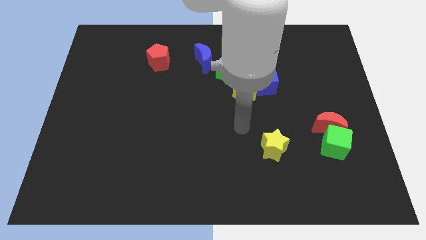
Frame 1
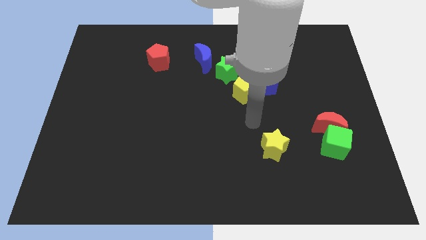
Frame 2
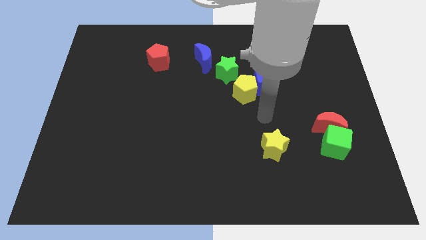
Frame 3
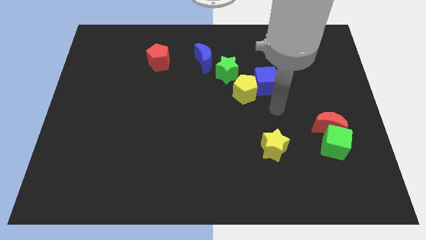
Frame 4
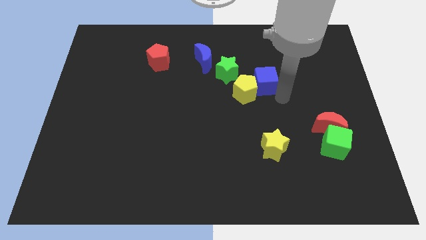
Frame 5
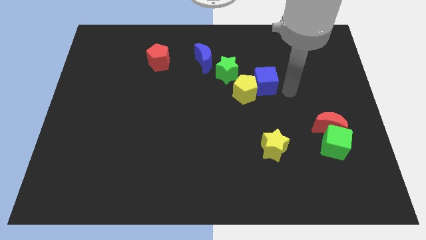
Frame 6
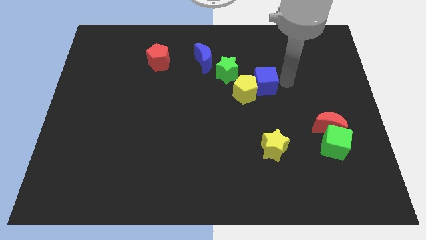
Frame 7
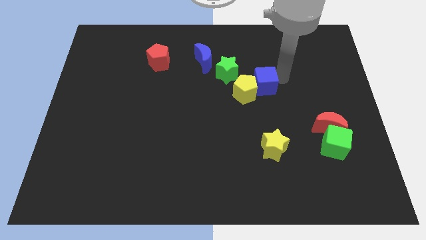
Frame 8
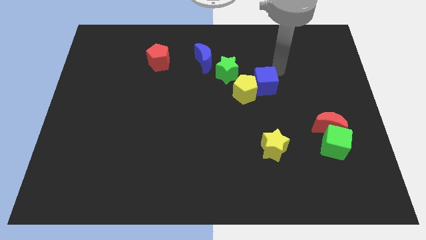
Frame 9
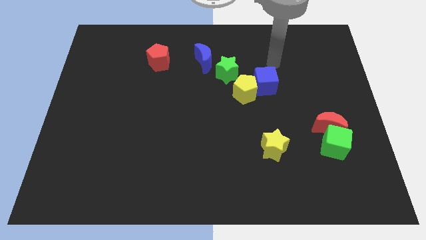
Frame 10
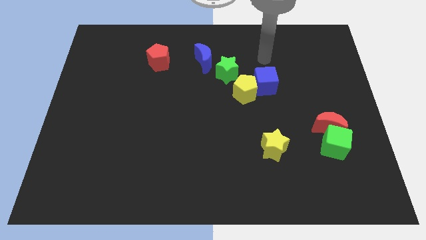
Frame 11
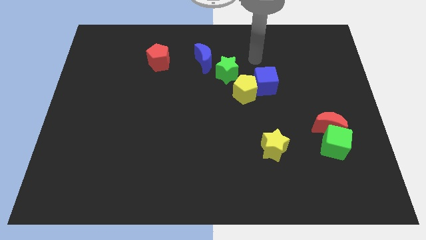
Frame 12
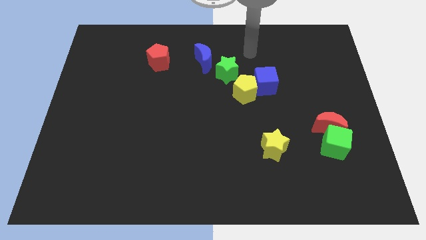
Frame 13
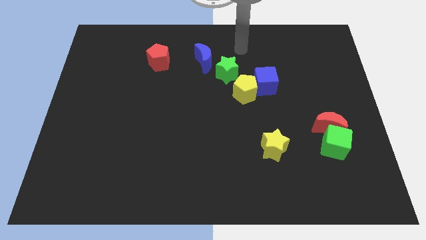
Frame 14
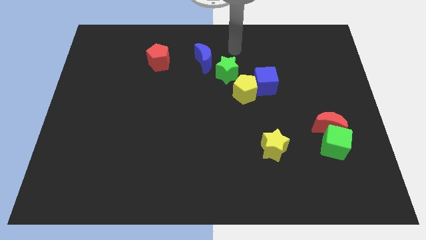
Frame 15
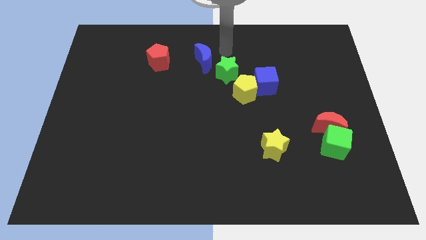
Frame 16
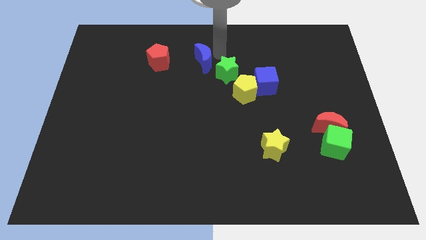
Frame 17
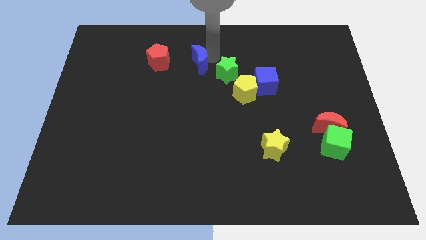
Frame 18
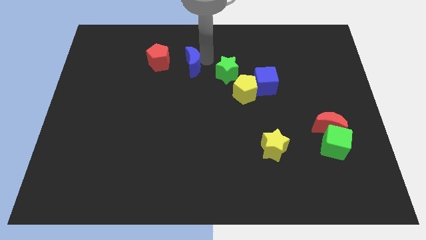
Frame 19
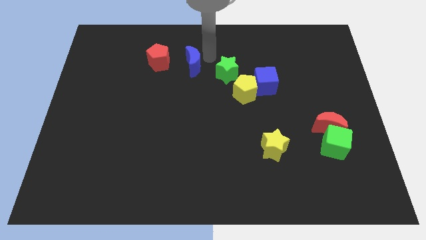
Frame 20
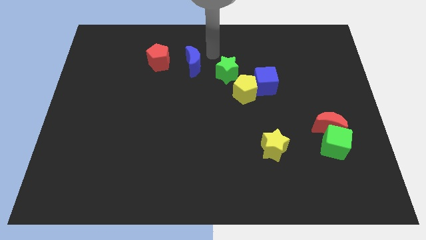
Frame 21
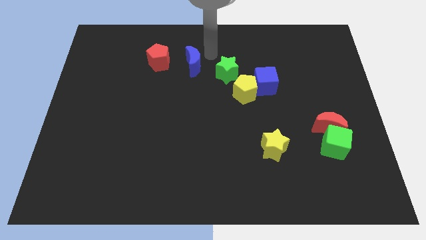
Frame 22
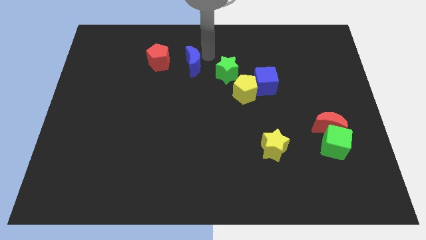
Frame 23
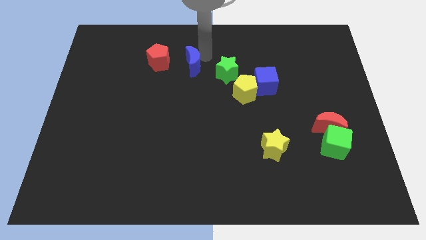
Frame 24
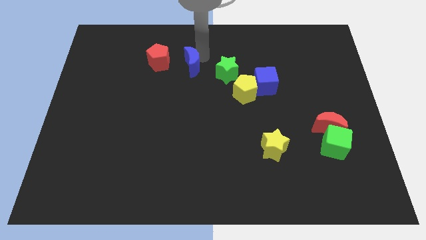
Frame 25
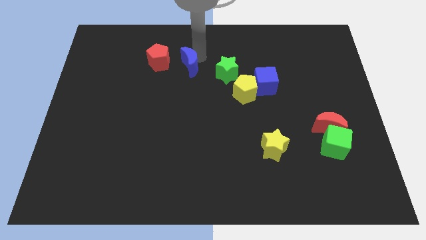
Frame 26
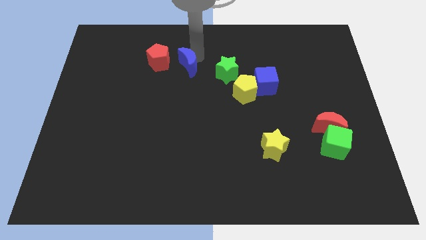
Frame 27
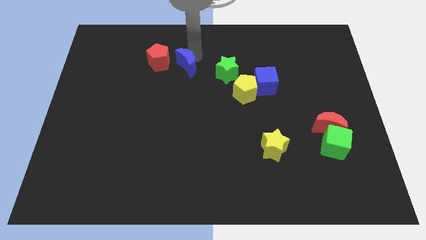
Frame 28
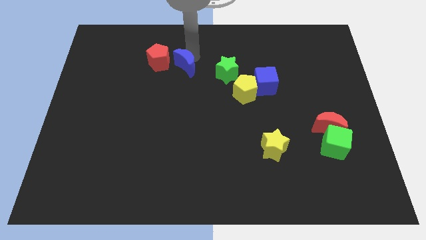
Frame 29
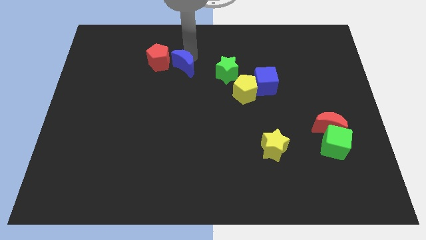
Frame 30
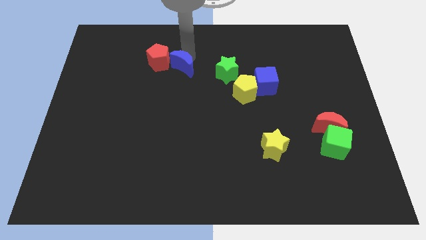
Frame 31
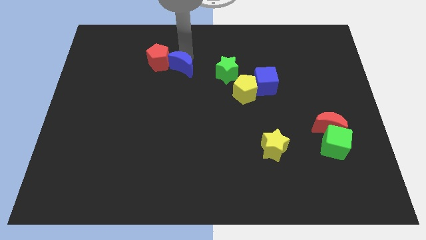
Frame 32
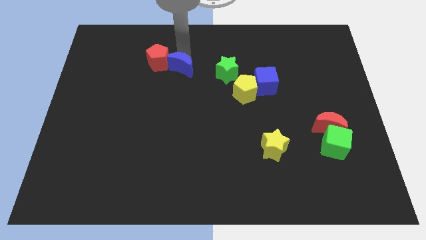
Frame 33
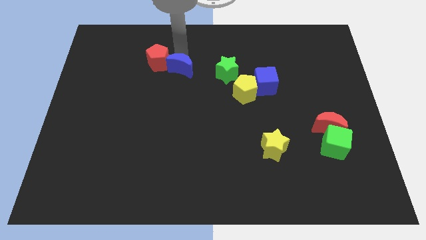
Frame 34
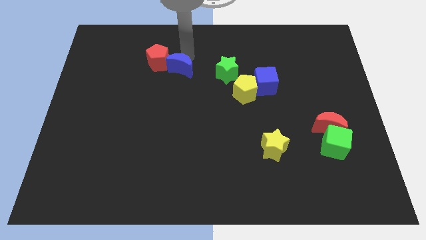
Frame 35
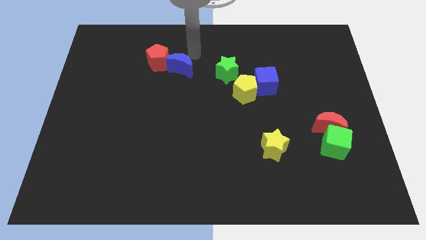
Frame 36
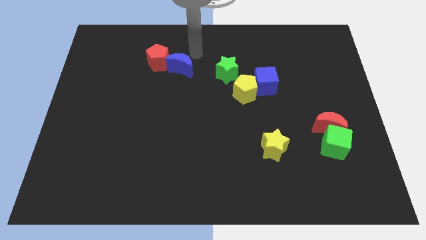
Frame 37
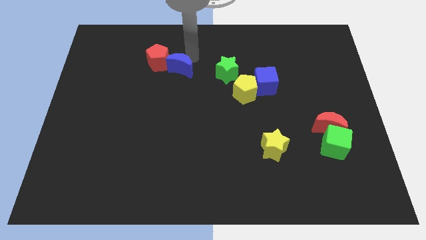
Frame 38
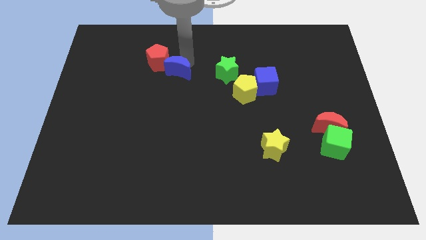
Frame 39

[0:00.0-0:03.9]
push the blue moon diagonally down and to the left somewhat

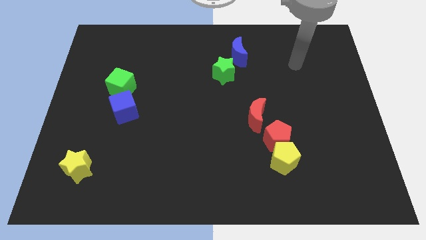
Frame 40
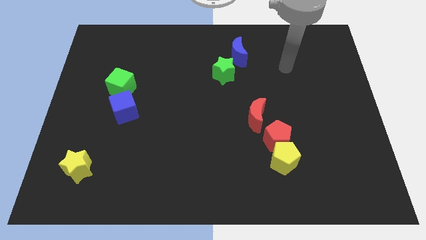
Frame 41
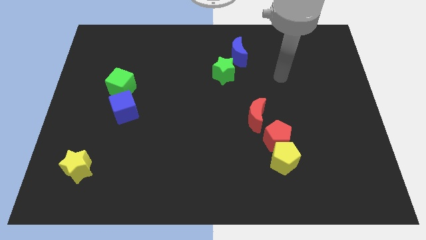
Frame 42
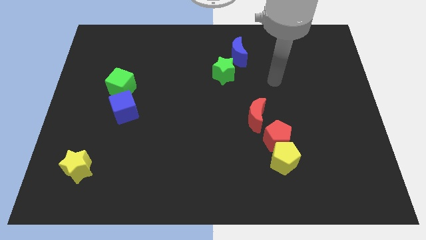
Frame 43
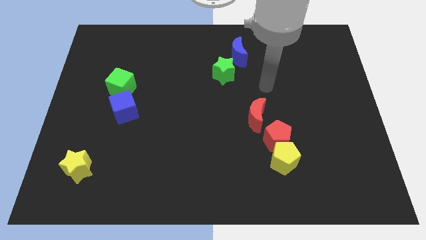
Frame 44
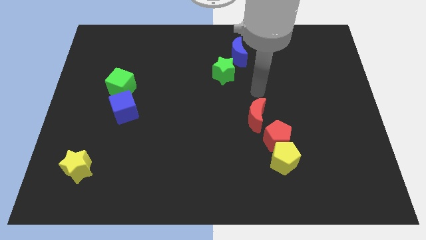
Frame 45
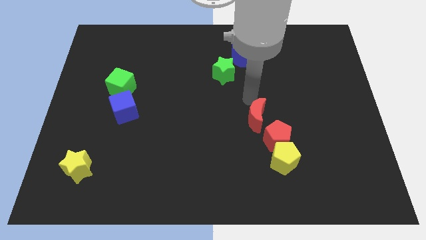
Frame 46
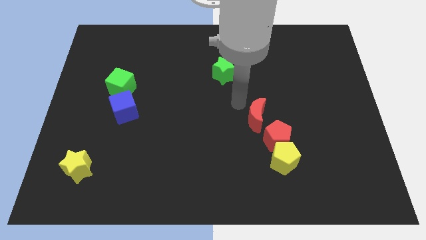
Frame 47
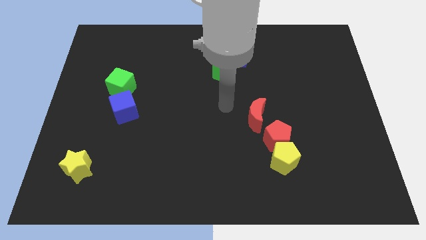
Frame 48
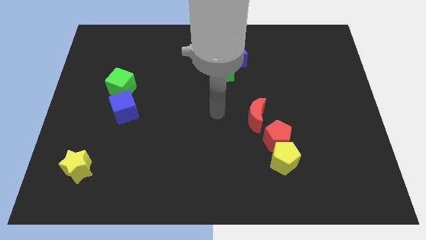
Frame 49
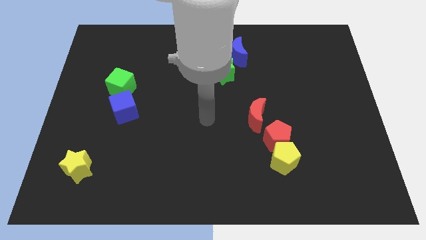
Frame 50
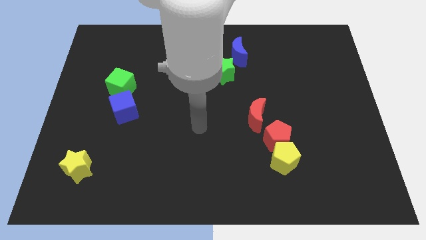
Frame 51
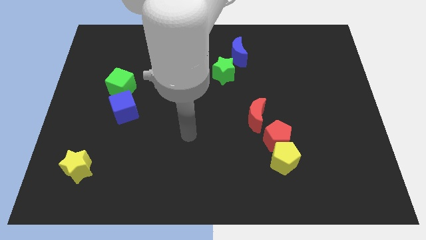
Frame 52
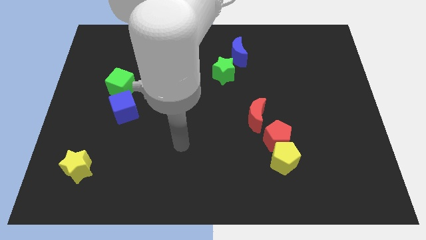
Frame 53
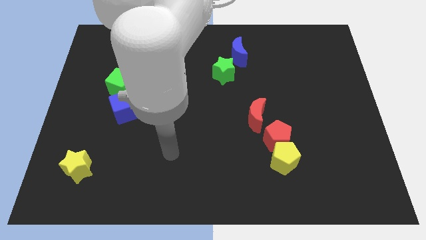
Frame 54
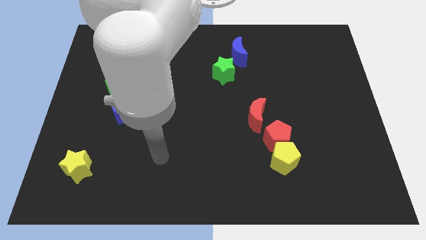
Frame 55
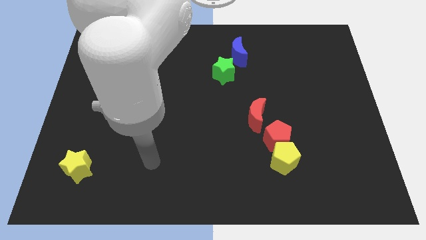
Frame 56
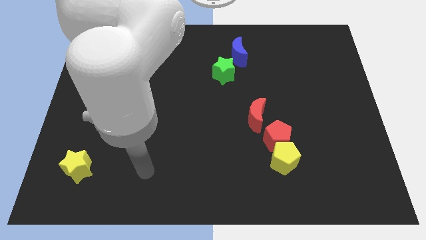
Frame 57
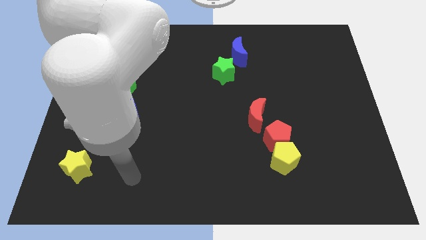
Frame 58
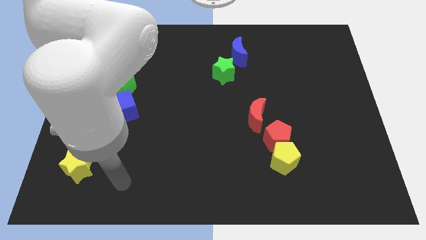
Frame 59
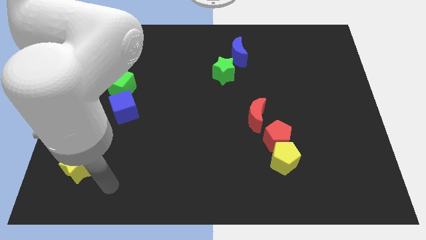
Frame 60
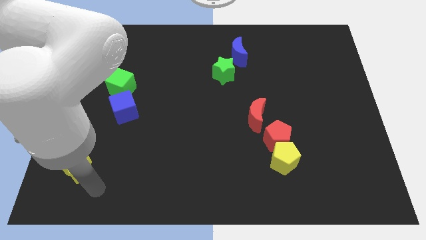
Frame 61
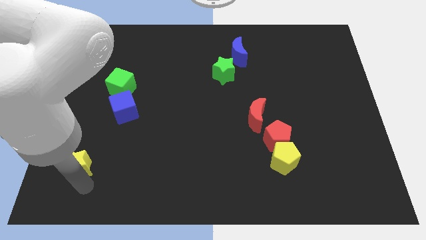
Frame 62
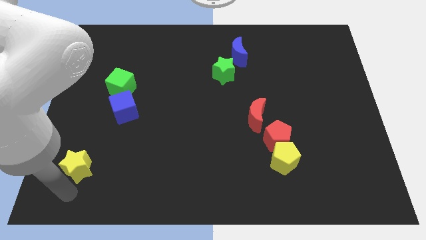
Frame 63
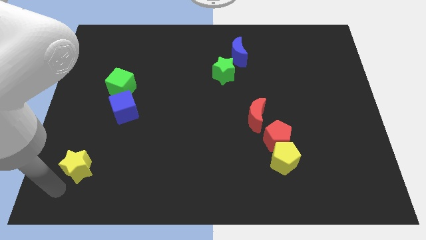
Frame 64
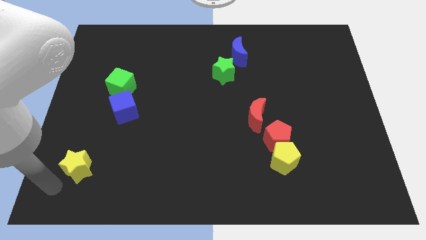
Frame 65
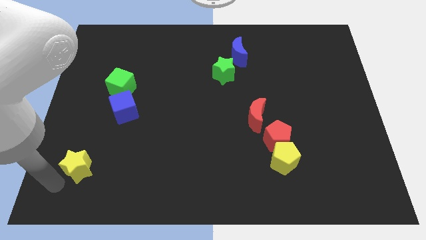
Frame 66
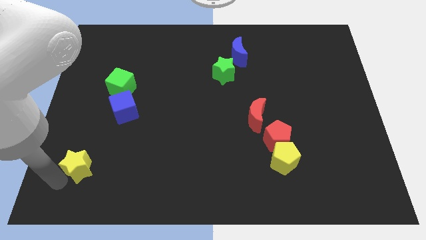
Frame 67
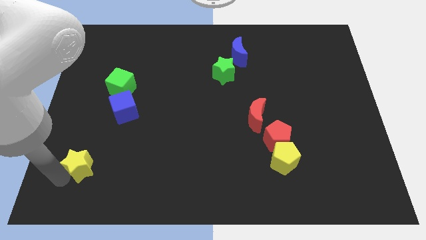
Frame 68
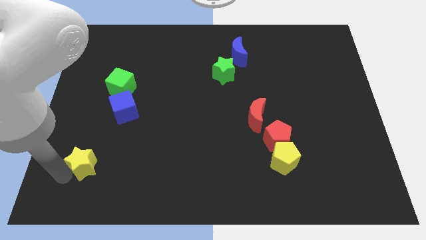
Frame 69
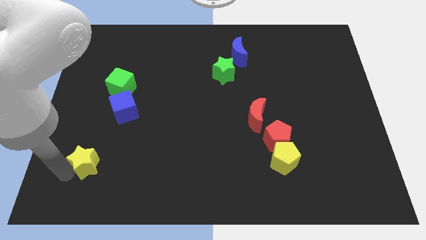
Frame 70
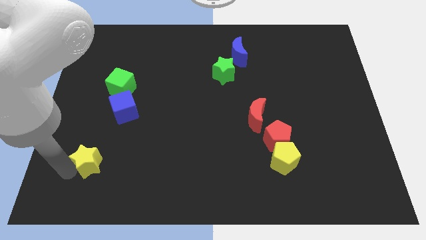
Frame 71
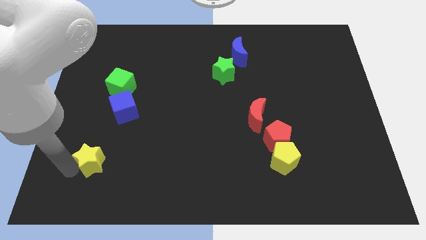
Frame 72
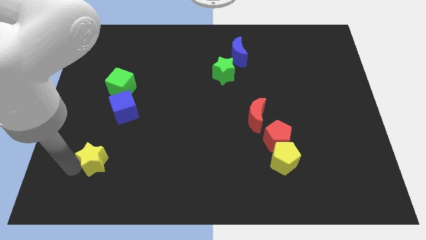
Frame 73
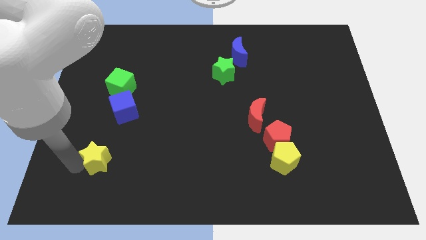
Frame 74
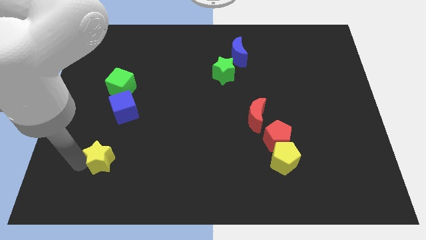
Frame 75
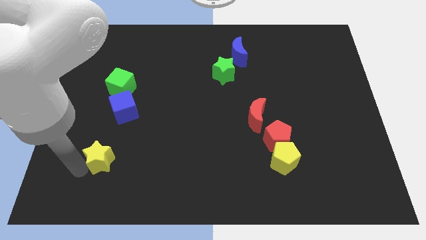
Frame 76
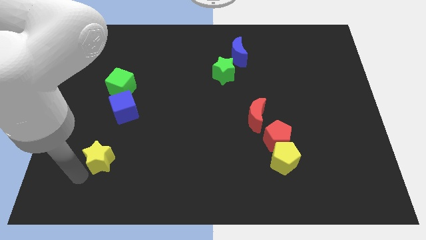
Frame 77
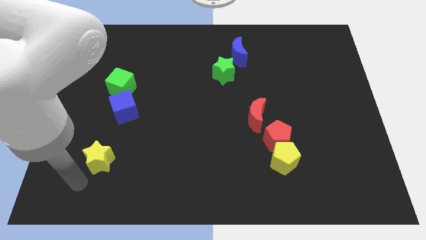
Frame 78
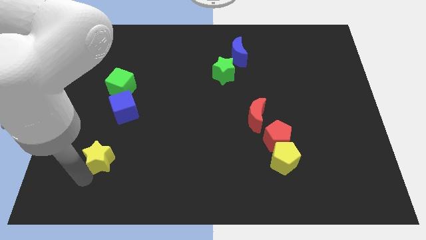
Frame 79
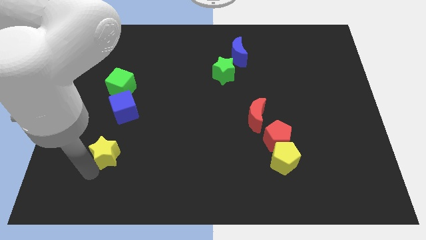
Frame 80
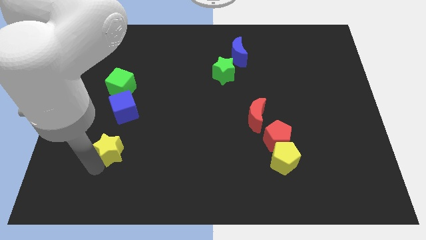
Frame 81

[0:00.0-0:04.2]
slide the yellow star diagonally up and to the right slightly

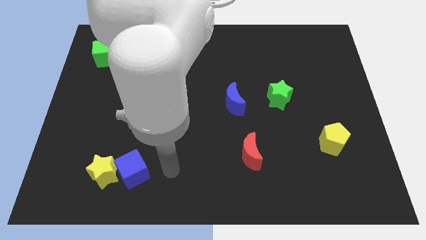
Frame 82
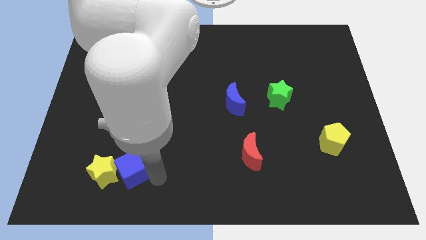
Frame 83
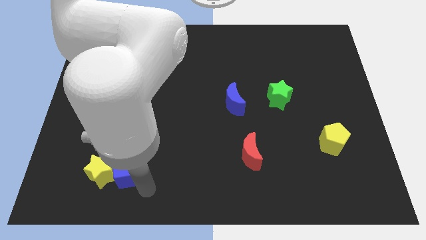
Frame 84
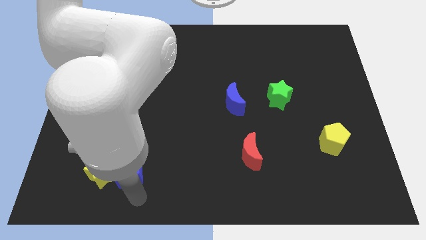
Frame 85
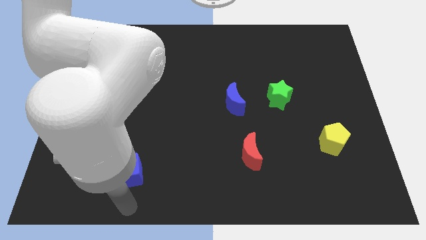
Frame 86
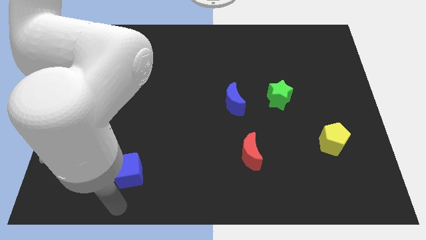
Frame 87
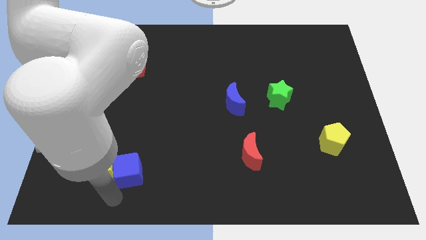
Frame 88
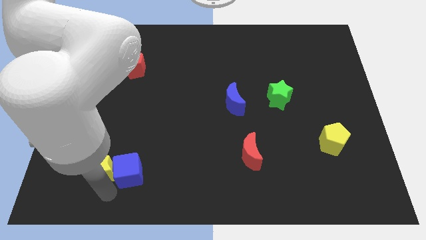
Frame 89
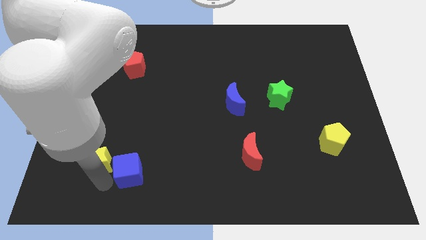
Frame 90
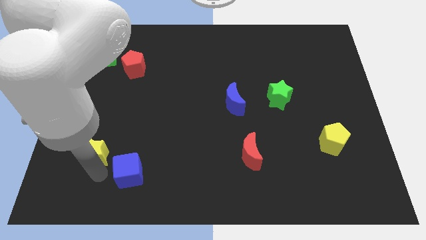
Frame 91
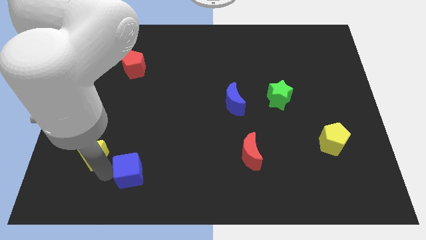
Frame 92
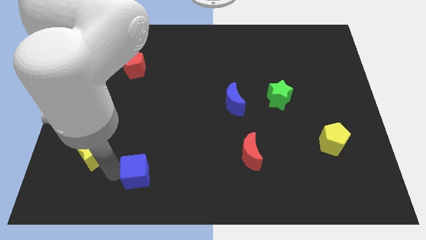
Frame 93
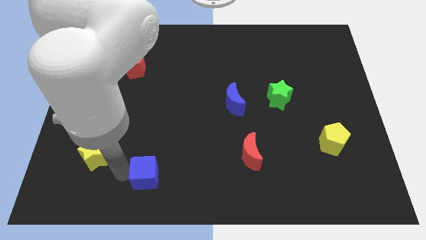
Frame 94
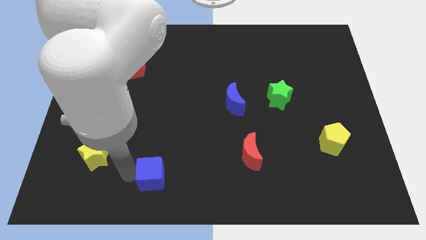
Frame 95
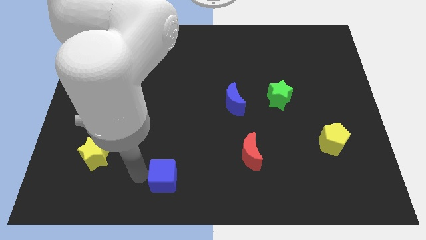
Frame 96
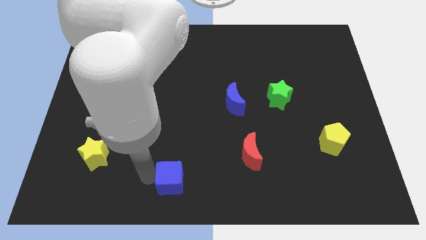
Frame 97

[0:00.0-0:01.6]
move the blue cube slightly right
